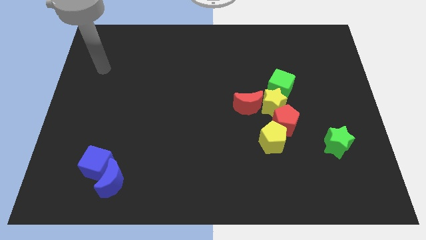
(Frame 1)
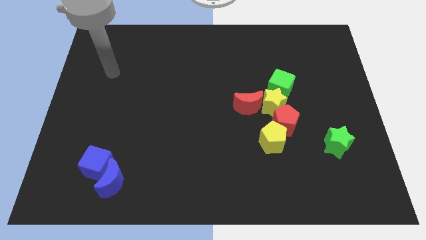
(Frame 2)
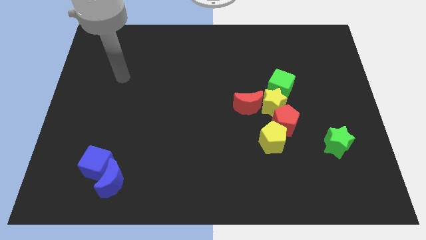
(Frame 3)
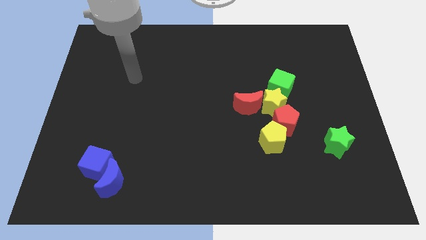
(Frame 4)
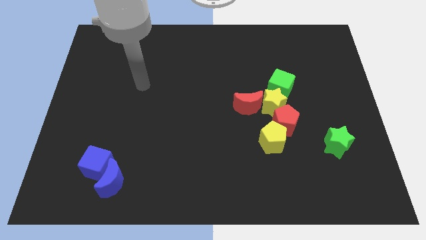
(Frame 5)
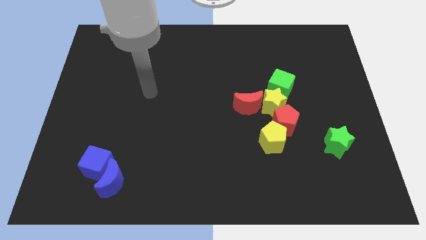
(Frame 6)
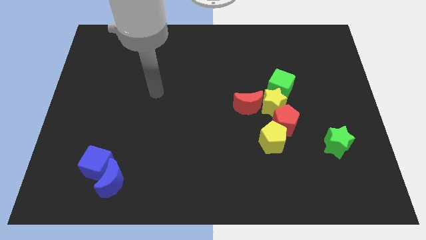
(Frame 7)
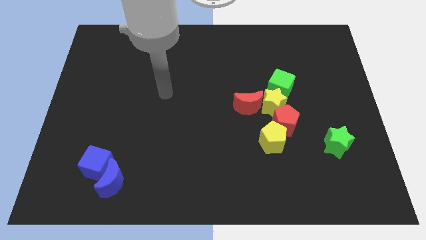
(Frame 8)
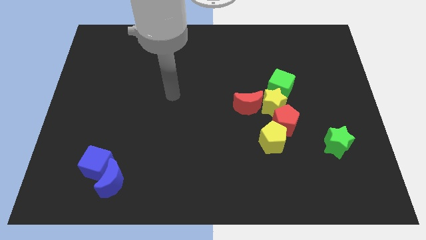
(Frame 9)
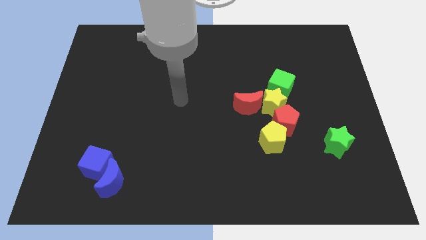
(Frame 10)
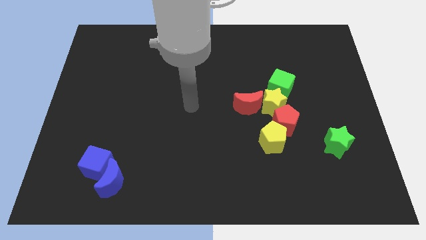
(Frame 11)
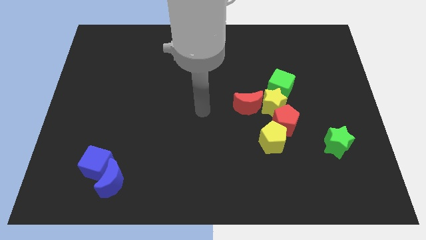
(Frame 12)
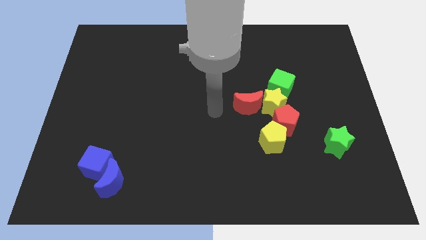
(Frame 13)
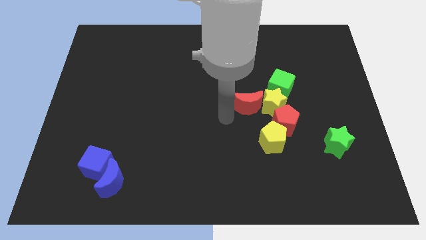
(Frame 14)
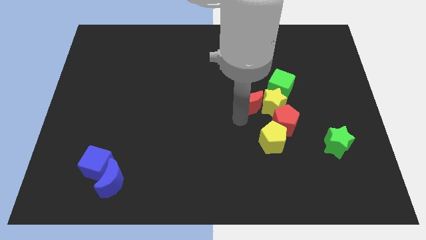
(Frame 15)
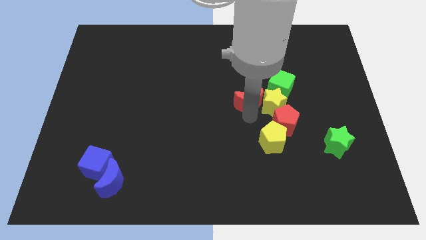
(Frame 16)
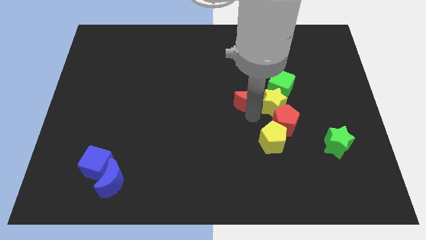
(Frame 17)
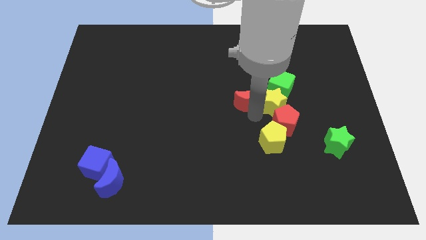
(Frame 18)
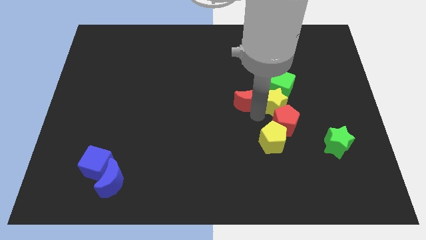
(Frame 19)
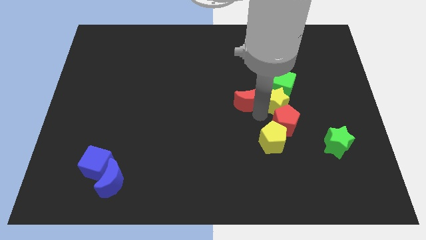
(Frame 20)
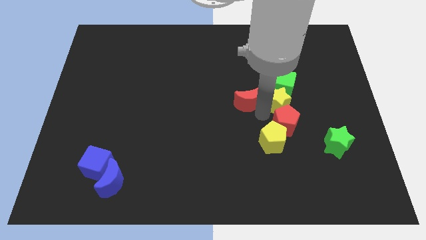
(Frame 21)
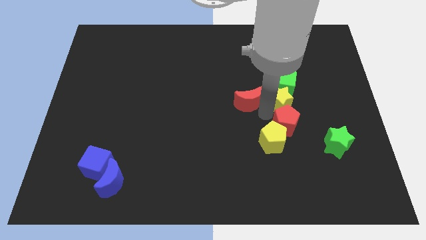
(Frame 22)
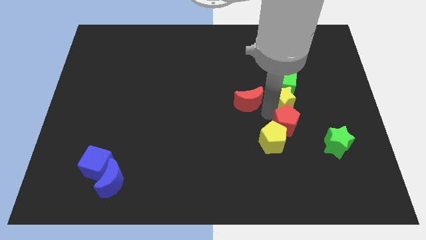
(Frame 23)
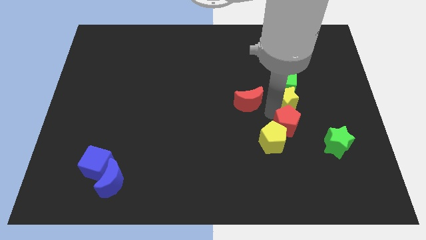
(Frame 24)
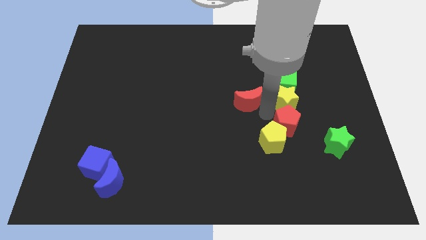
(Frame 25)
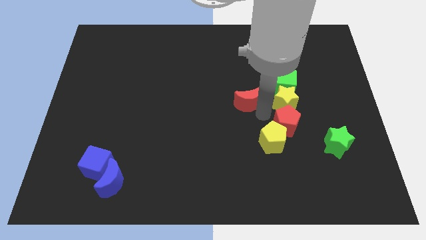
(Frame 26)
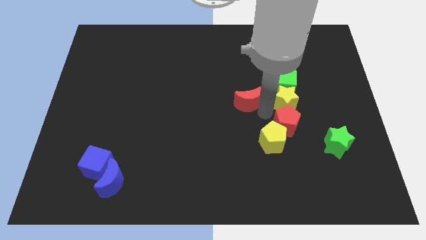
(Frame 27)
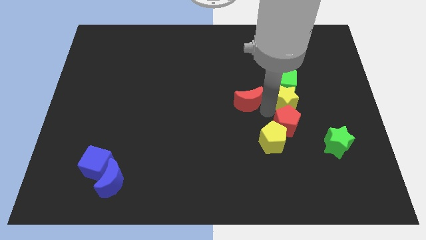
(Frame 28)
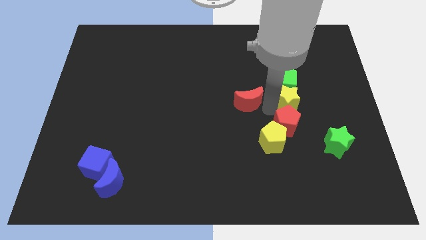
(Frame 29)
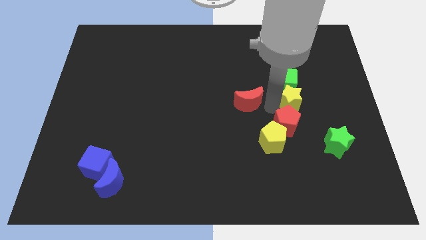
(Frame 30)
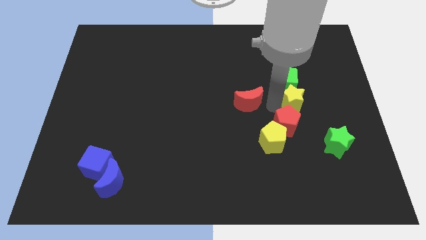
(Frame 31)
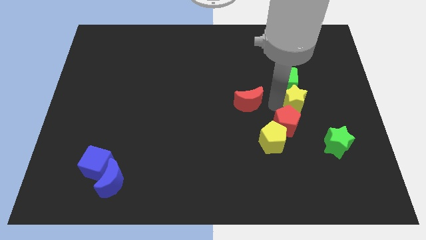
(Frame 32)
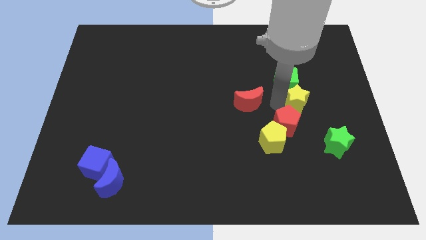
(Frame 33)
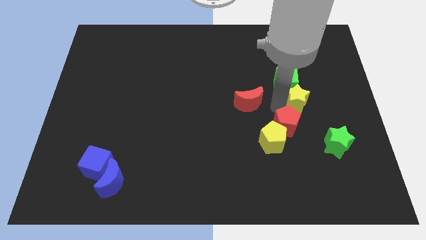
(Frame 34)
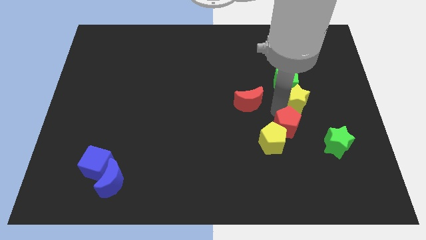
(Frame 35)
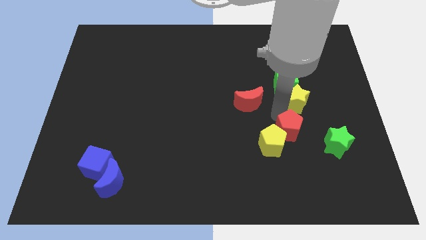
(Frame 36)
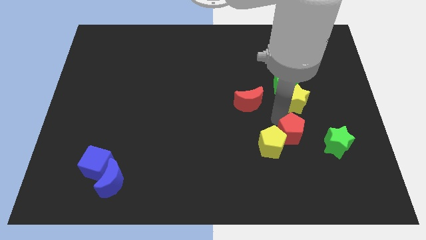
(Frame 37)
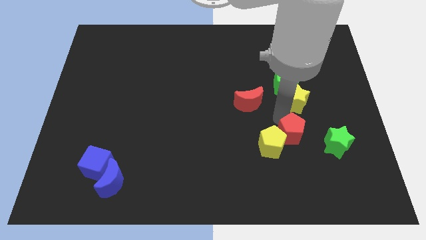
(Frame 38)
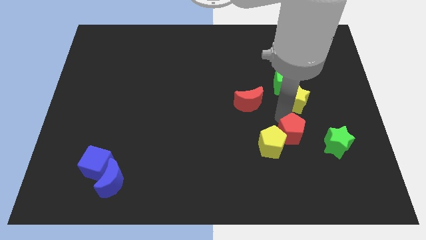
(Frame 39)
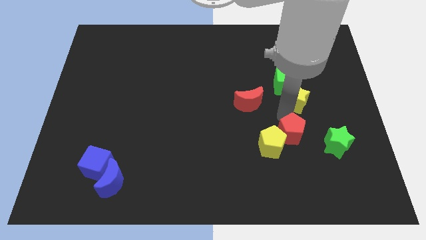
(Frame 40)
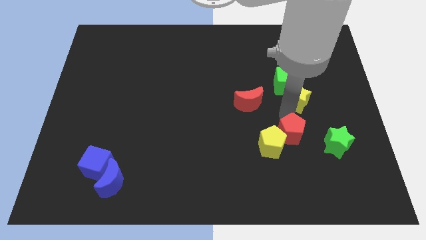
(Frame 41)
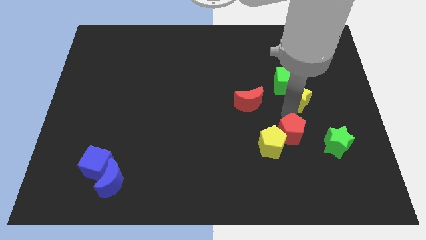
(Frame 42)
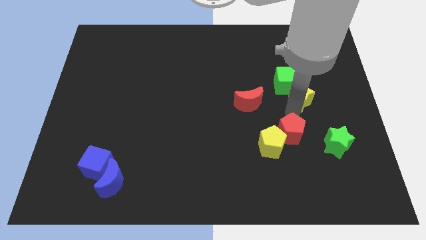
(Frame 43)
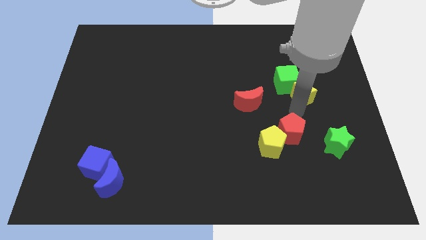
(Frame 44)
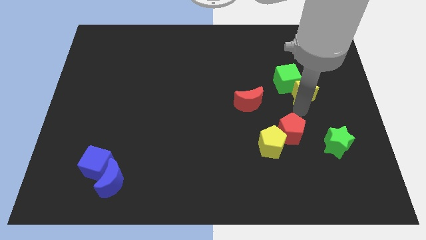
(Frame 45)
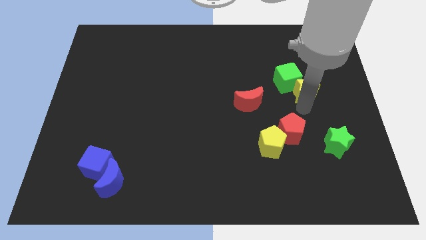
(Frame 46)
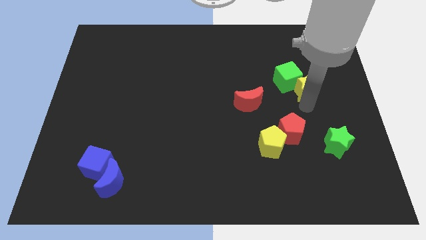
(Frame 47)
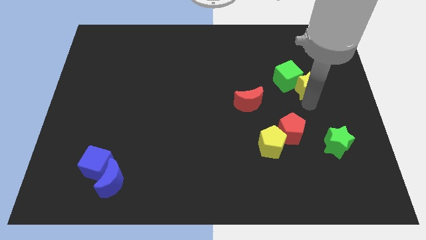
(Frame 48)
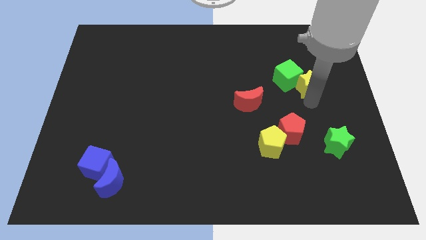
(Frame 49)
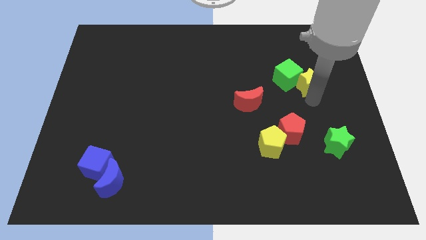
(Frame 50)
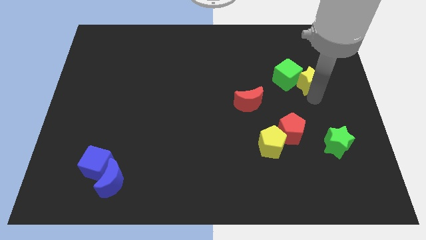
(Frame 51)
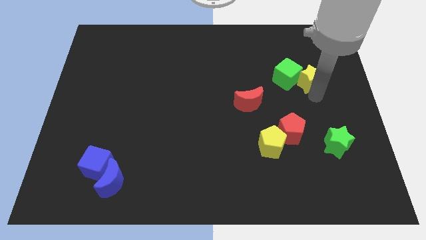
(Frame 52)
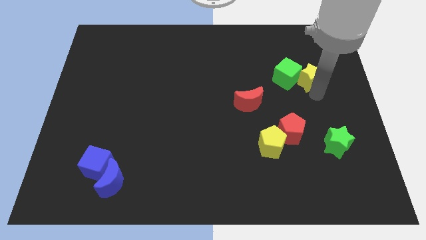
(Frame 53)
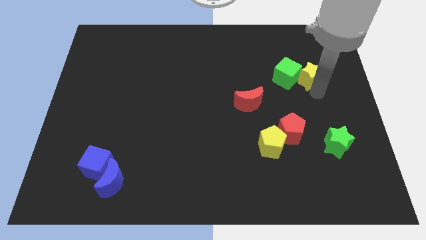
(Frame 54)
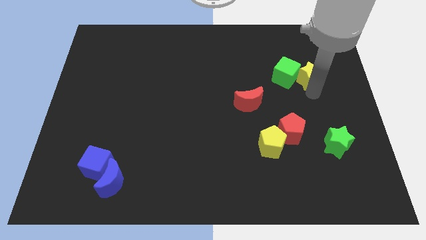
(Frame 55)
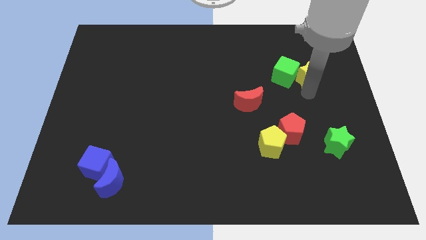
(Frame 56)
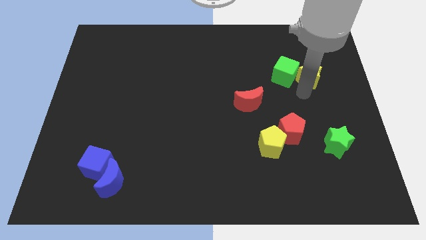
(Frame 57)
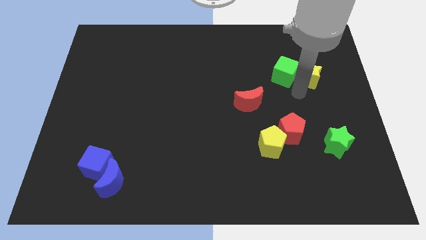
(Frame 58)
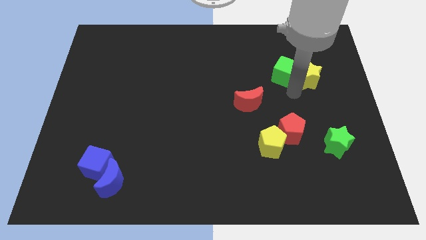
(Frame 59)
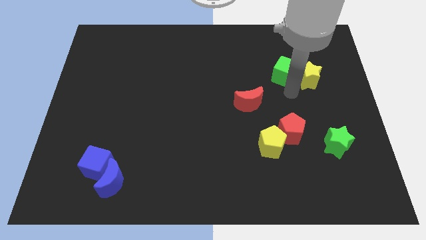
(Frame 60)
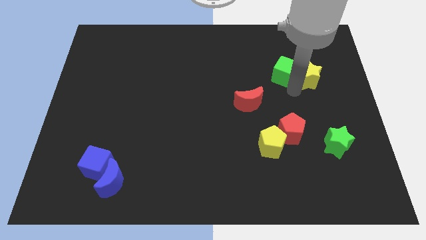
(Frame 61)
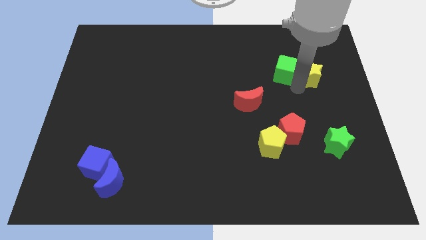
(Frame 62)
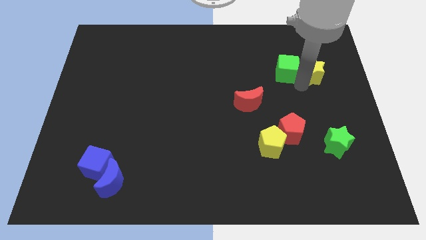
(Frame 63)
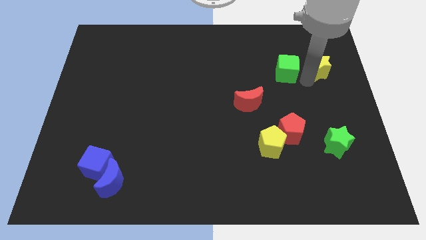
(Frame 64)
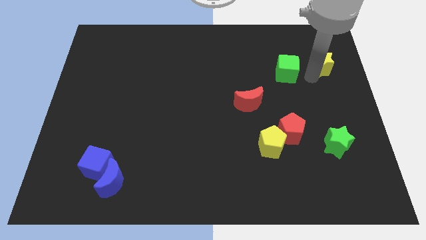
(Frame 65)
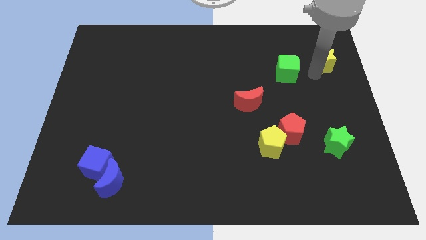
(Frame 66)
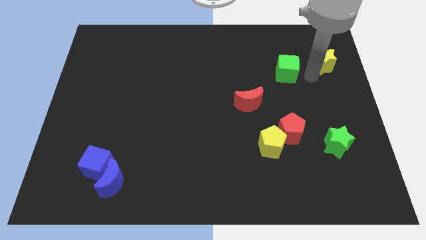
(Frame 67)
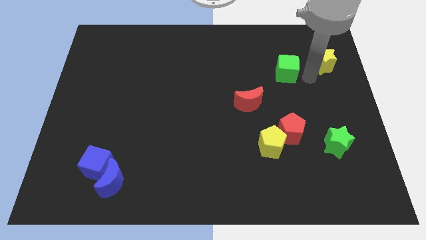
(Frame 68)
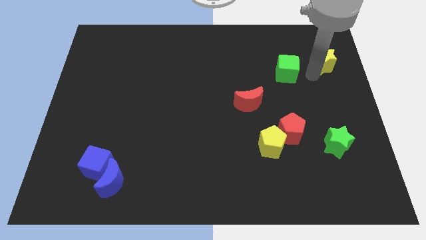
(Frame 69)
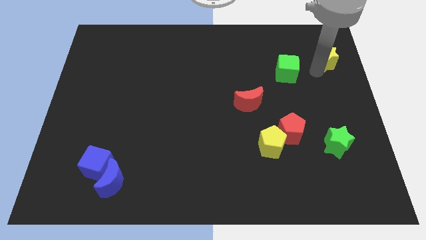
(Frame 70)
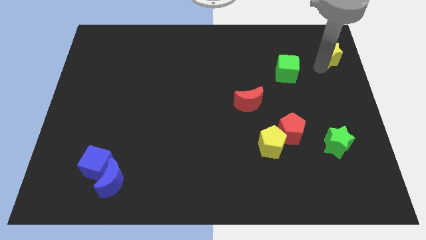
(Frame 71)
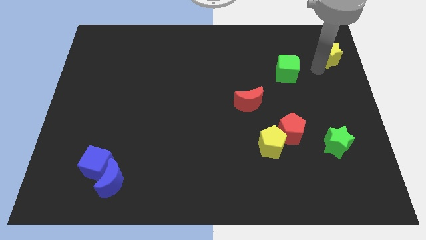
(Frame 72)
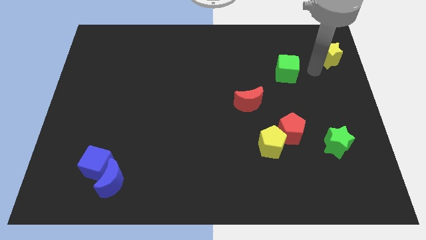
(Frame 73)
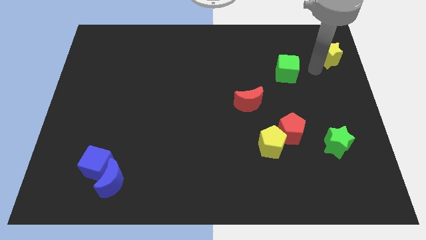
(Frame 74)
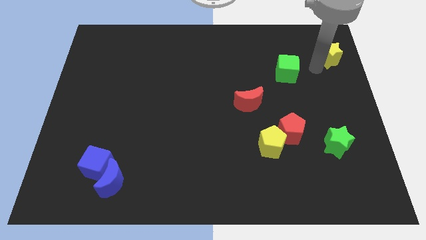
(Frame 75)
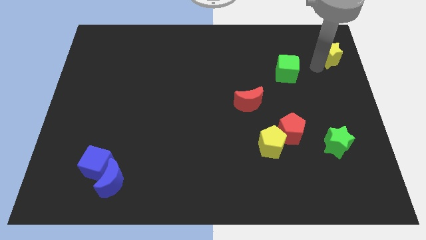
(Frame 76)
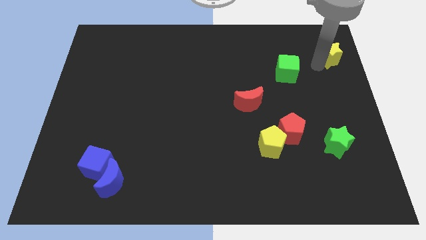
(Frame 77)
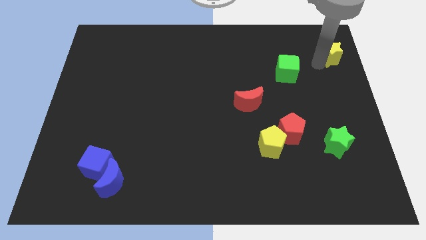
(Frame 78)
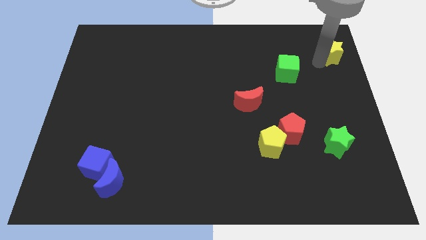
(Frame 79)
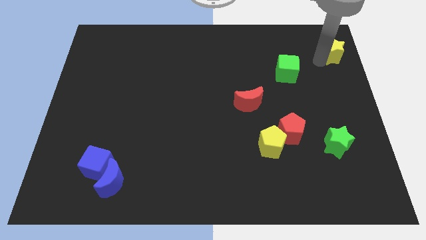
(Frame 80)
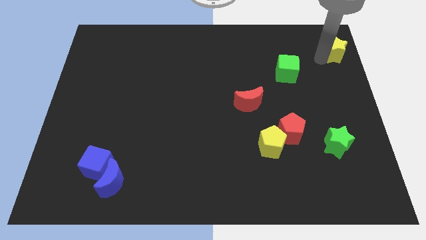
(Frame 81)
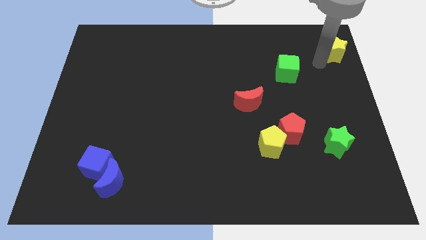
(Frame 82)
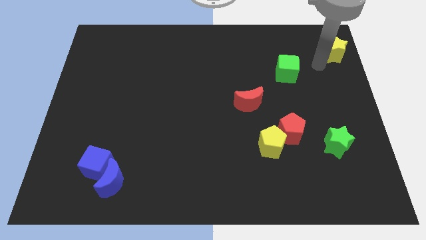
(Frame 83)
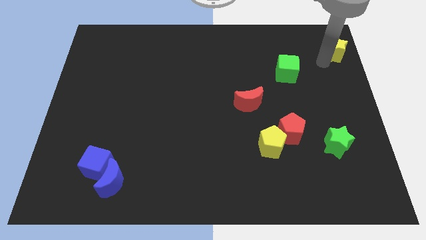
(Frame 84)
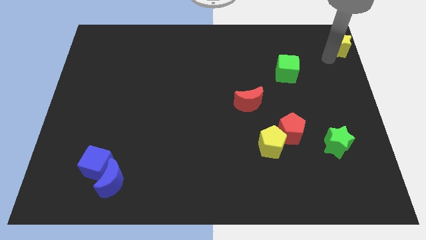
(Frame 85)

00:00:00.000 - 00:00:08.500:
push the yellow star to the upper right corner
